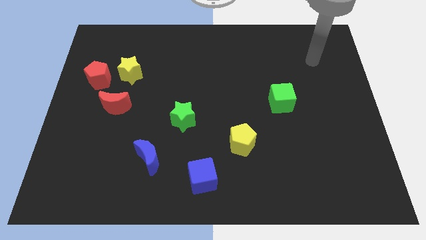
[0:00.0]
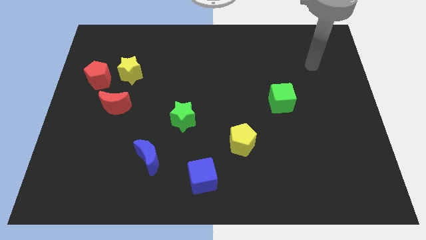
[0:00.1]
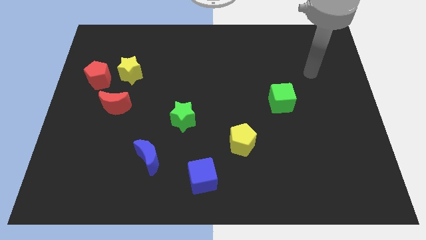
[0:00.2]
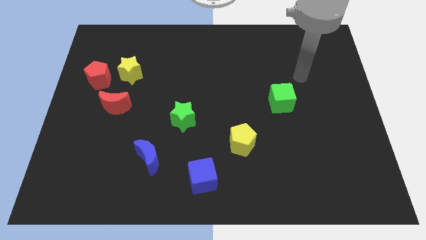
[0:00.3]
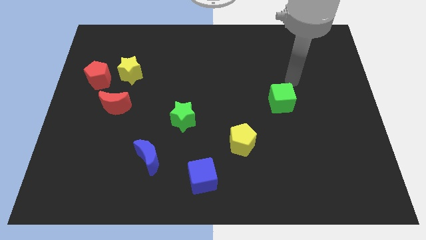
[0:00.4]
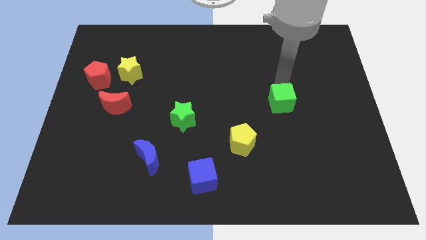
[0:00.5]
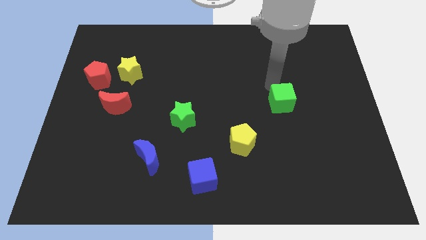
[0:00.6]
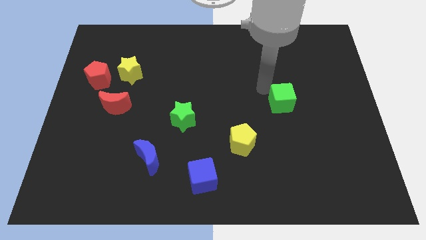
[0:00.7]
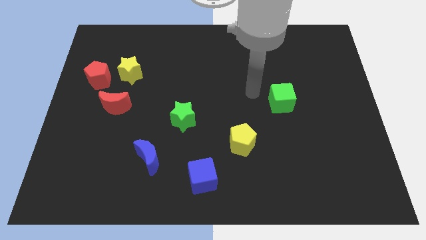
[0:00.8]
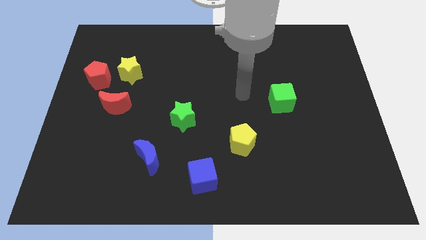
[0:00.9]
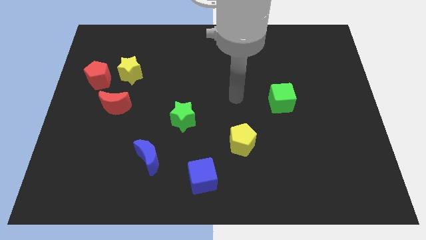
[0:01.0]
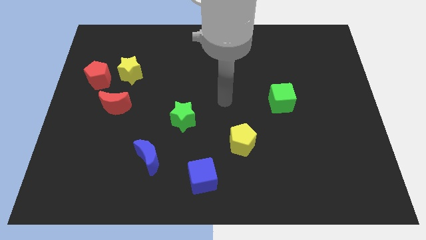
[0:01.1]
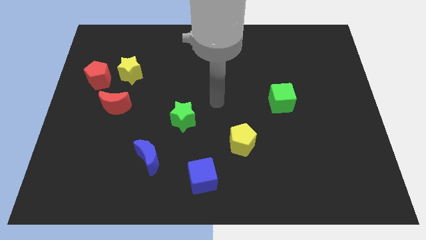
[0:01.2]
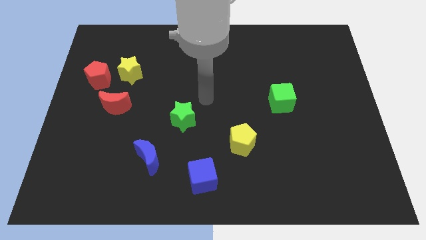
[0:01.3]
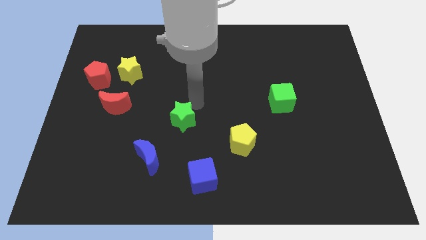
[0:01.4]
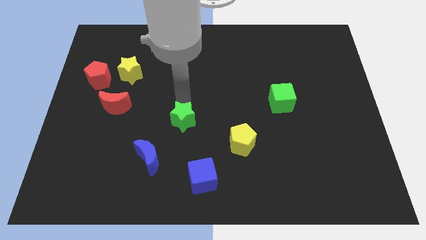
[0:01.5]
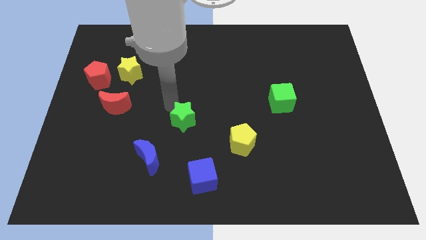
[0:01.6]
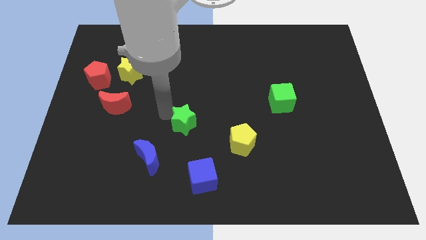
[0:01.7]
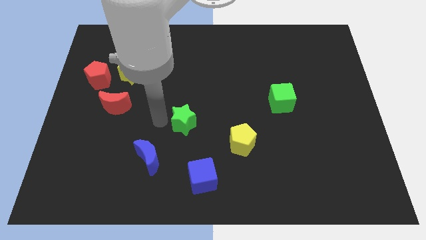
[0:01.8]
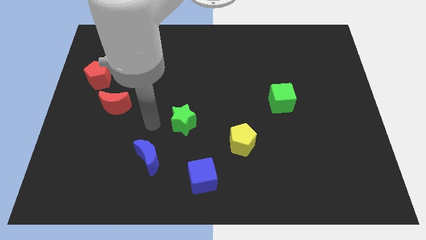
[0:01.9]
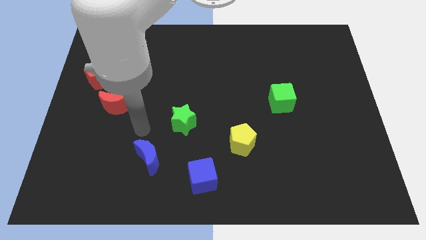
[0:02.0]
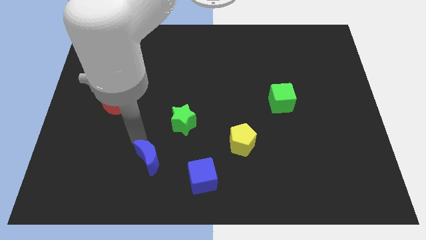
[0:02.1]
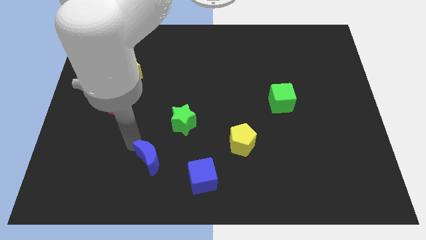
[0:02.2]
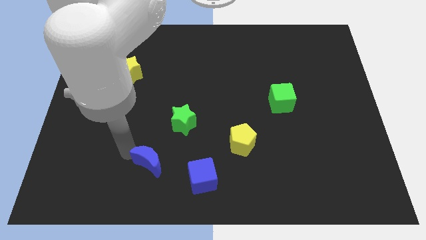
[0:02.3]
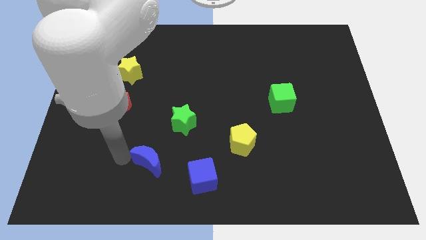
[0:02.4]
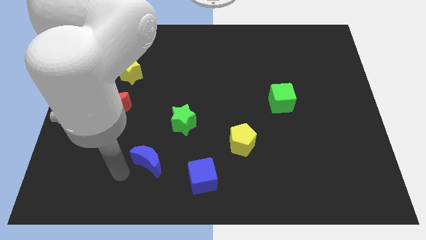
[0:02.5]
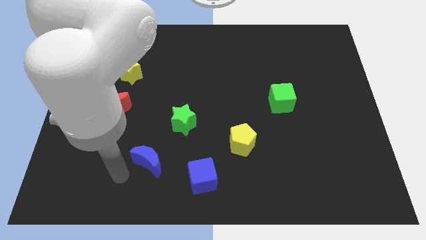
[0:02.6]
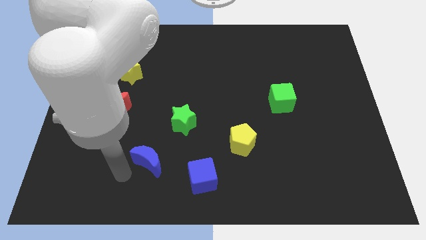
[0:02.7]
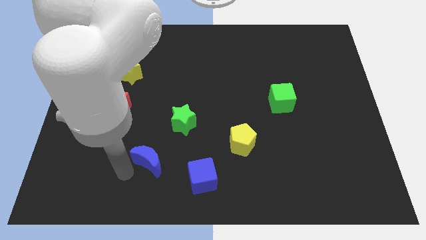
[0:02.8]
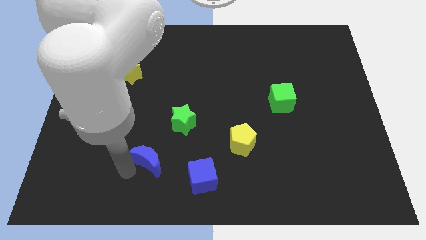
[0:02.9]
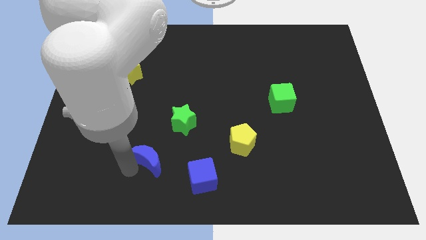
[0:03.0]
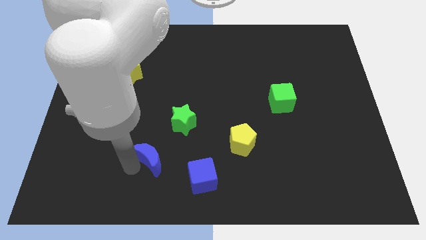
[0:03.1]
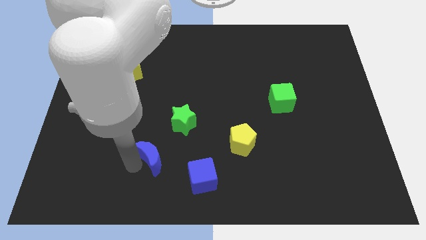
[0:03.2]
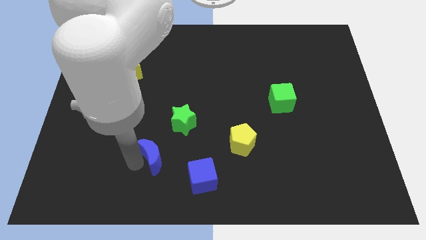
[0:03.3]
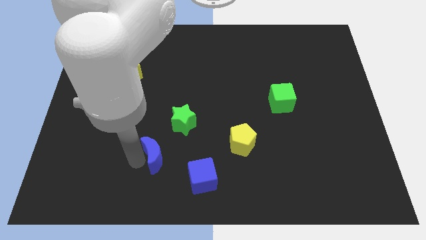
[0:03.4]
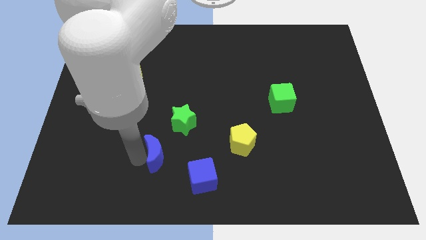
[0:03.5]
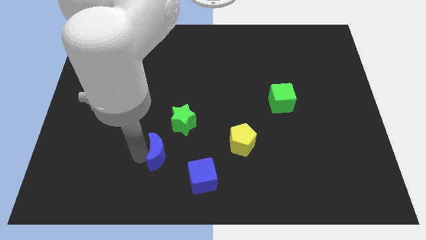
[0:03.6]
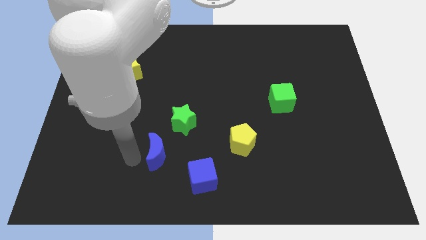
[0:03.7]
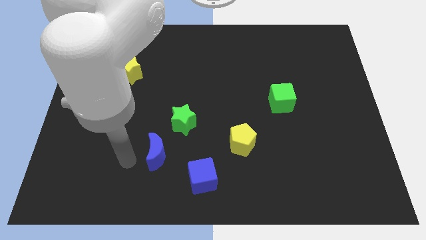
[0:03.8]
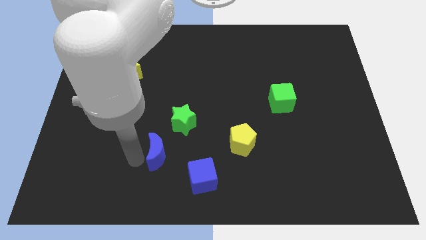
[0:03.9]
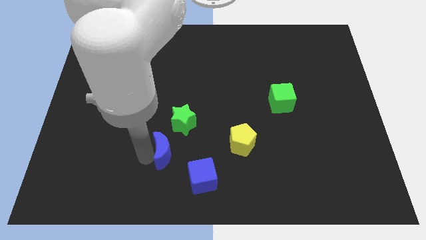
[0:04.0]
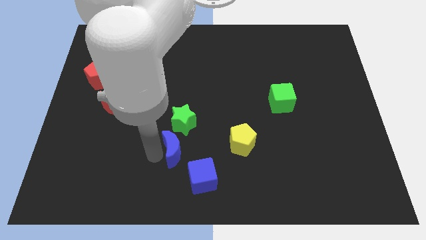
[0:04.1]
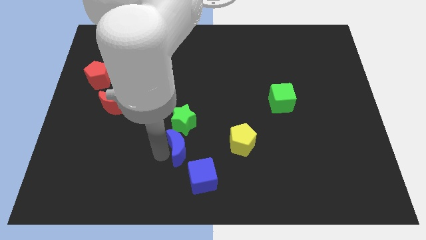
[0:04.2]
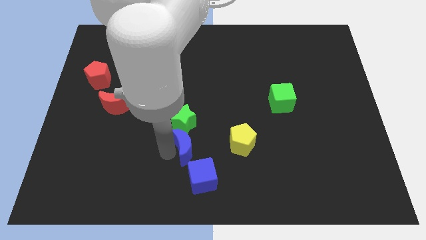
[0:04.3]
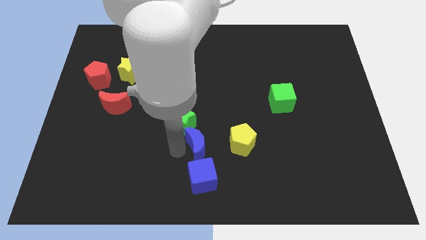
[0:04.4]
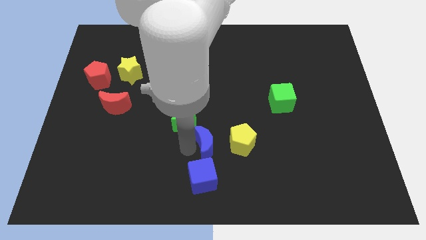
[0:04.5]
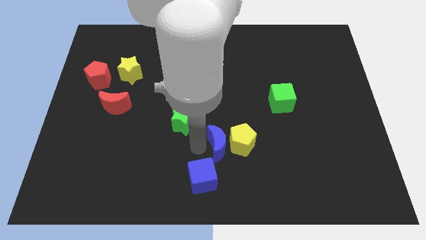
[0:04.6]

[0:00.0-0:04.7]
slide the blue moon next to the yellow pentagon

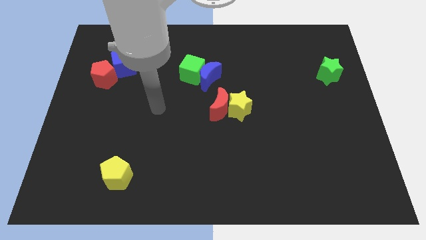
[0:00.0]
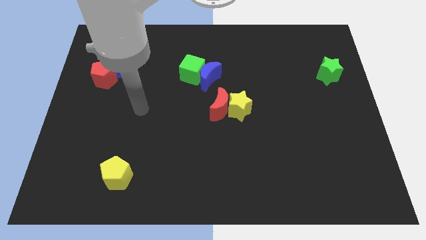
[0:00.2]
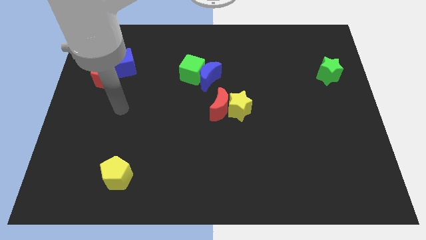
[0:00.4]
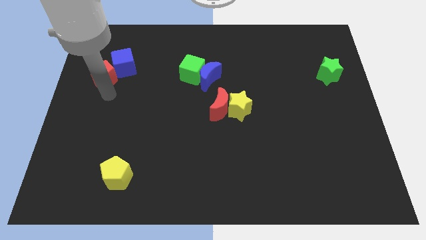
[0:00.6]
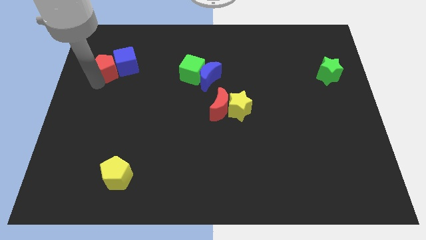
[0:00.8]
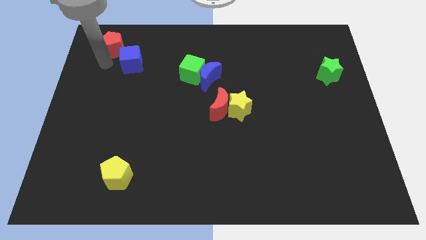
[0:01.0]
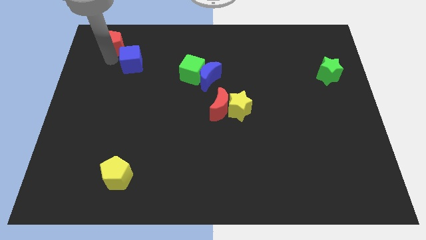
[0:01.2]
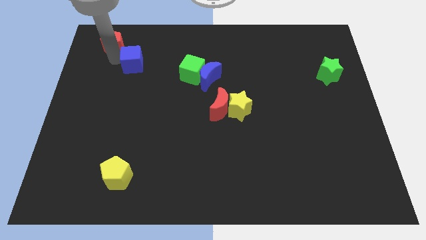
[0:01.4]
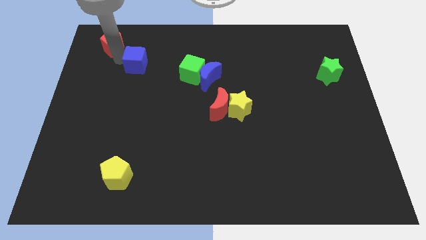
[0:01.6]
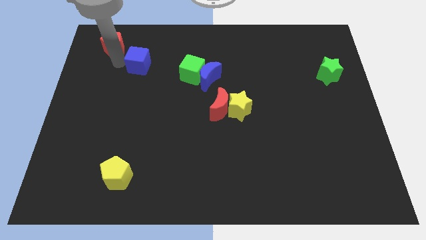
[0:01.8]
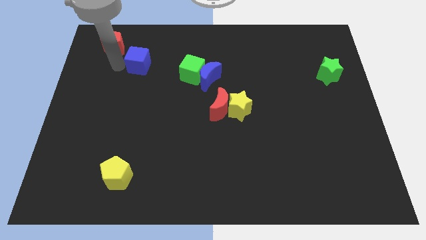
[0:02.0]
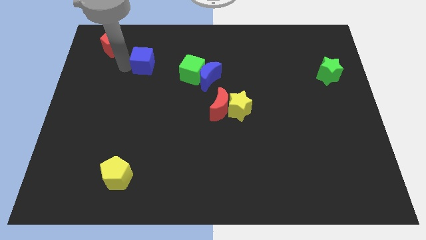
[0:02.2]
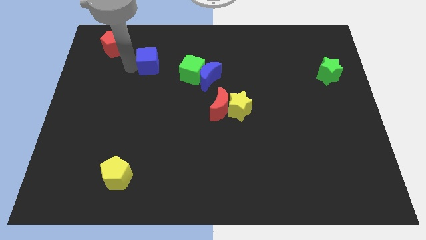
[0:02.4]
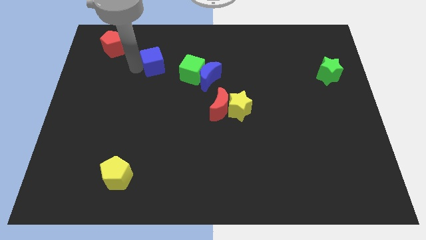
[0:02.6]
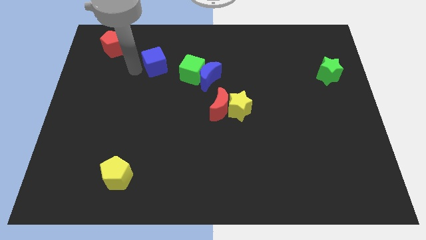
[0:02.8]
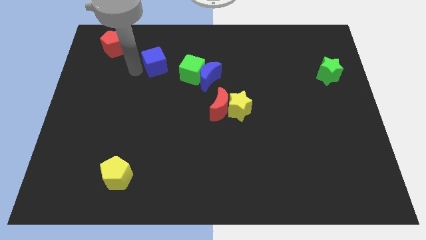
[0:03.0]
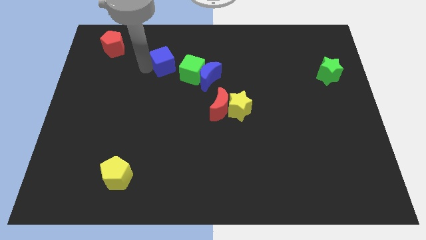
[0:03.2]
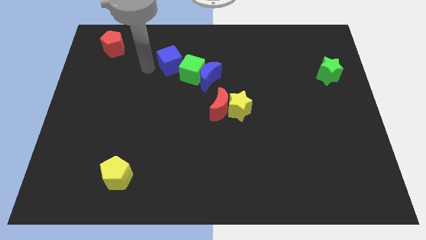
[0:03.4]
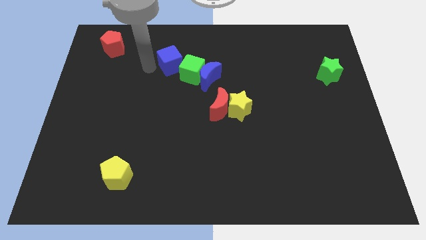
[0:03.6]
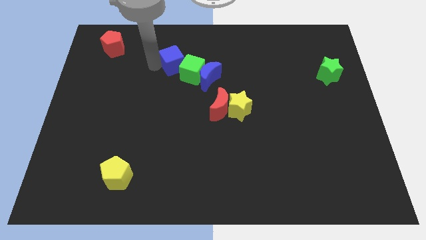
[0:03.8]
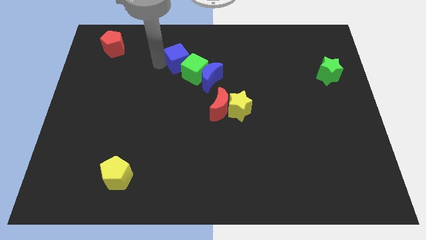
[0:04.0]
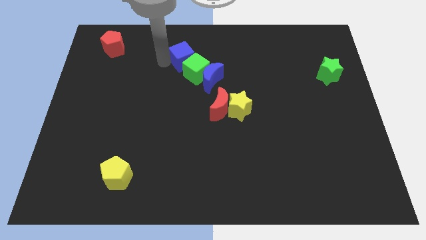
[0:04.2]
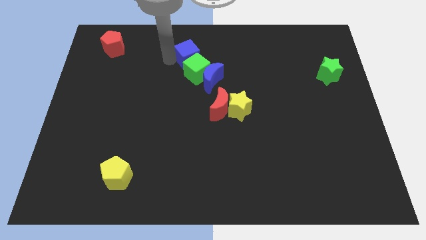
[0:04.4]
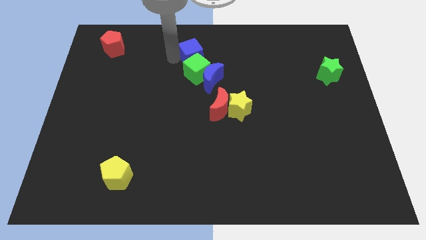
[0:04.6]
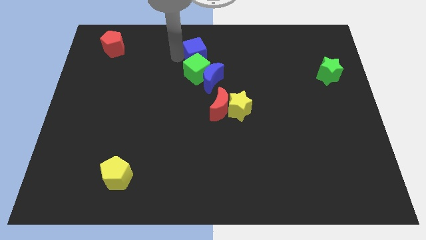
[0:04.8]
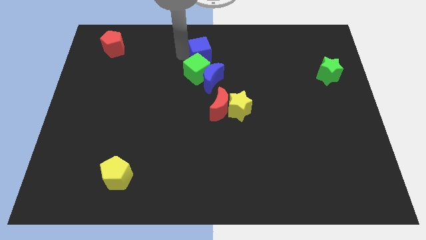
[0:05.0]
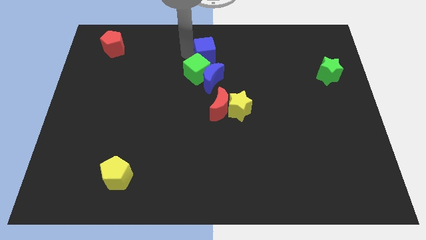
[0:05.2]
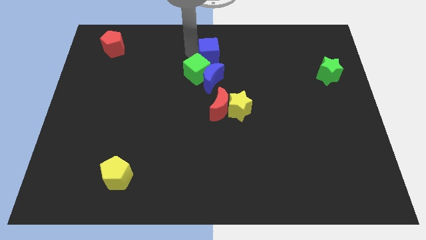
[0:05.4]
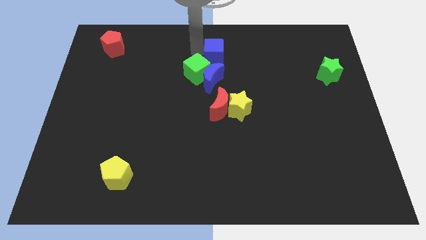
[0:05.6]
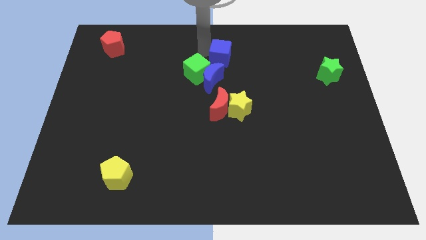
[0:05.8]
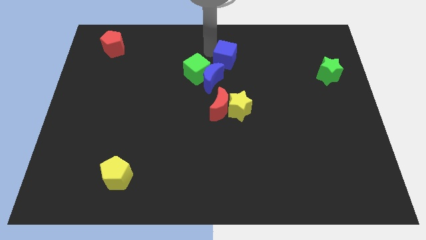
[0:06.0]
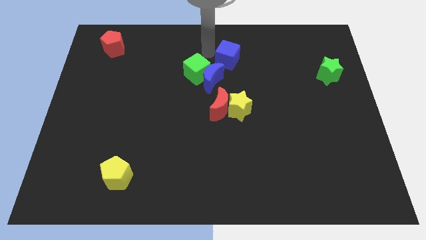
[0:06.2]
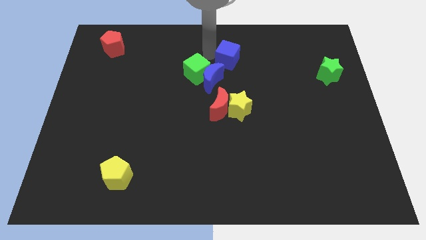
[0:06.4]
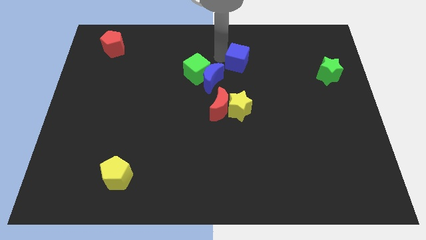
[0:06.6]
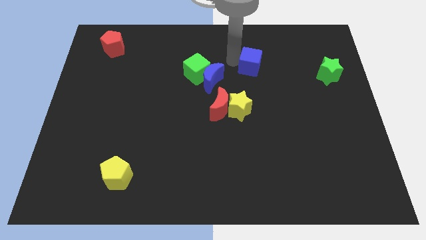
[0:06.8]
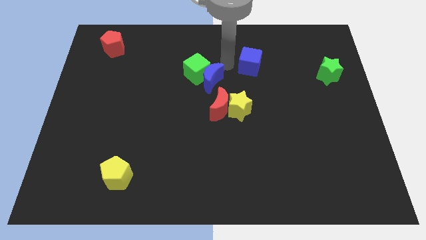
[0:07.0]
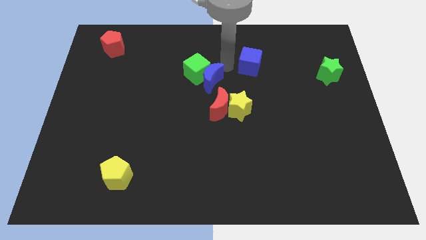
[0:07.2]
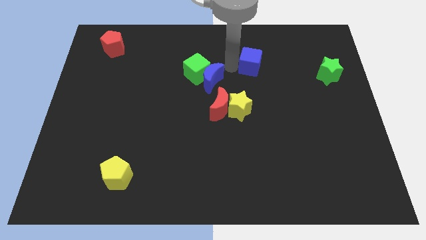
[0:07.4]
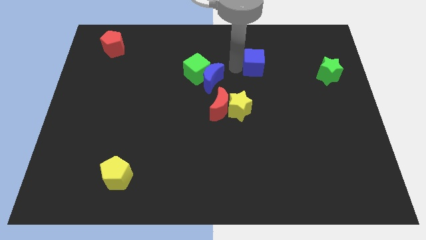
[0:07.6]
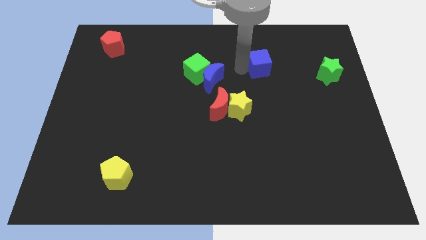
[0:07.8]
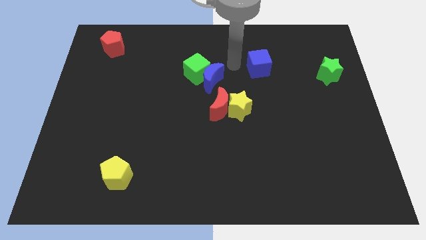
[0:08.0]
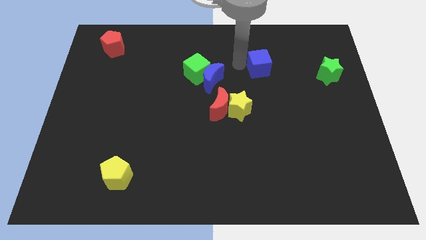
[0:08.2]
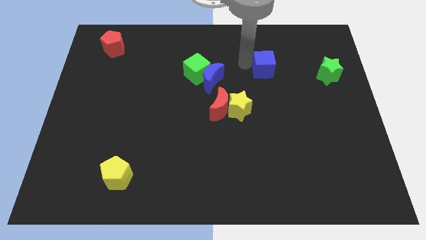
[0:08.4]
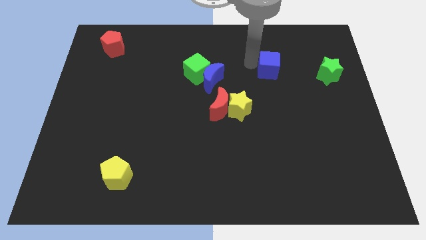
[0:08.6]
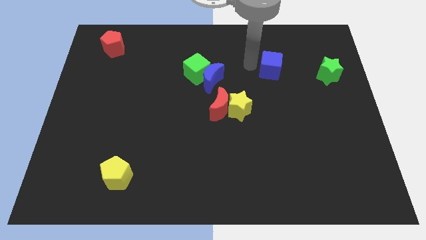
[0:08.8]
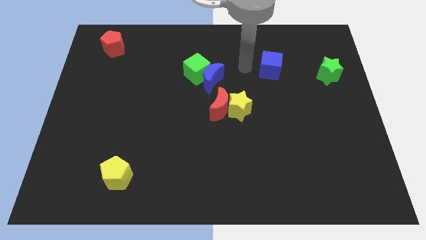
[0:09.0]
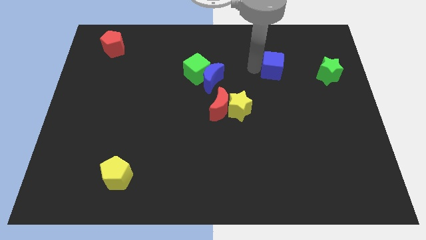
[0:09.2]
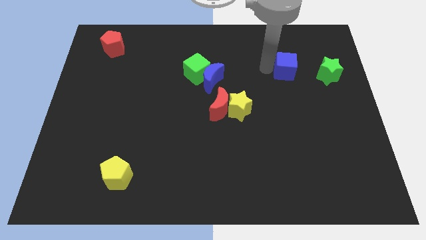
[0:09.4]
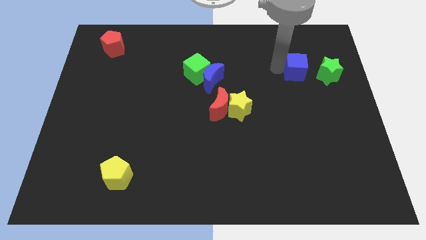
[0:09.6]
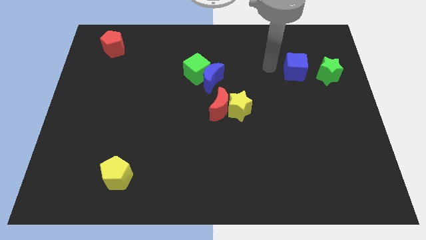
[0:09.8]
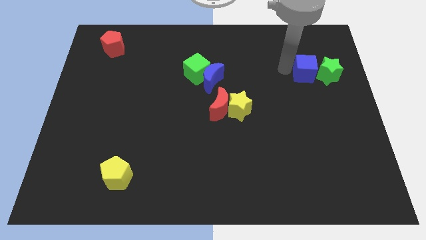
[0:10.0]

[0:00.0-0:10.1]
move the blue cube next to the green star
